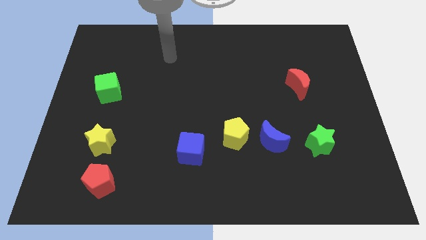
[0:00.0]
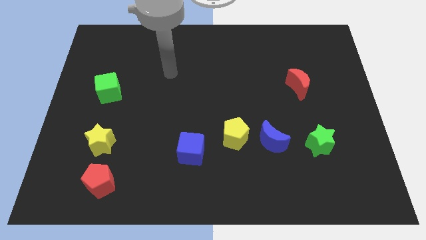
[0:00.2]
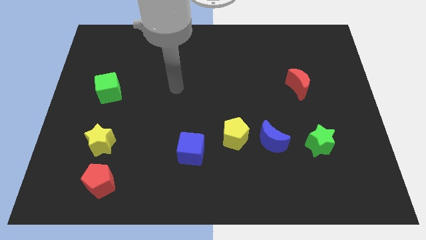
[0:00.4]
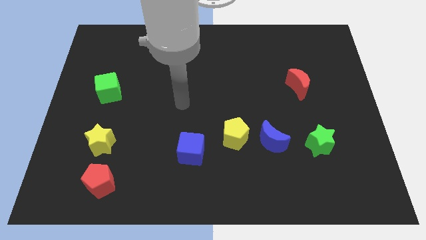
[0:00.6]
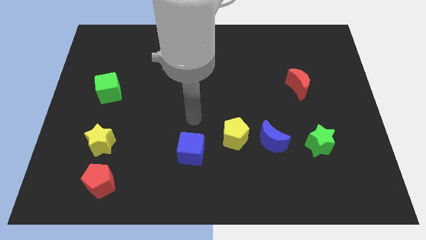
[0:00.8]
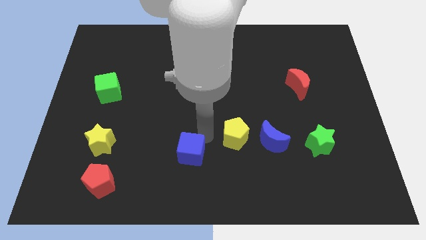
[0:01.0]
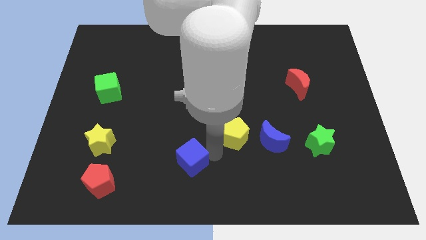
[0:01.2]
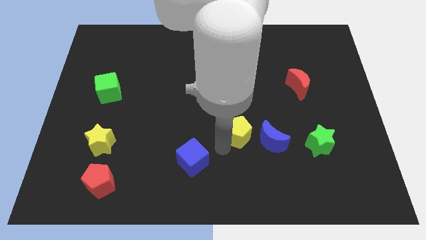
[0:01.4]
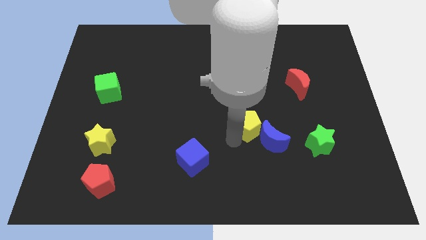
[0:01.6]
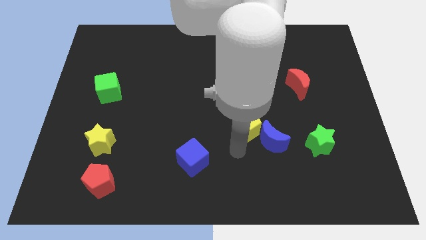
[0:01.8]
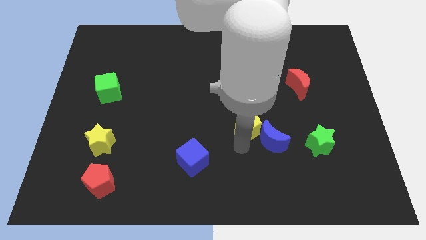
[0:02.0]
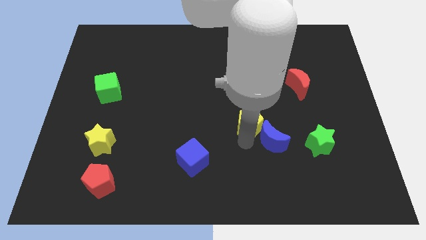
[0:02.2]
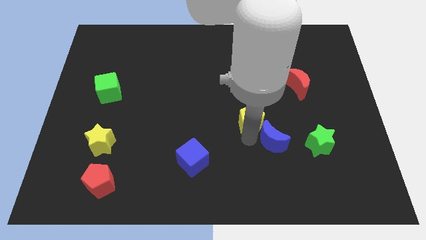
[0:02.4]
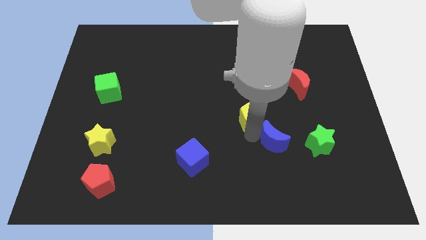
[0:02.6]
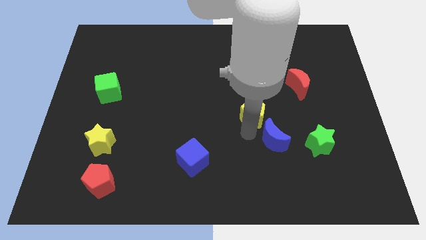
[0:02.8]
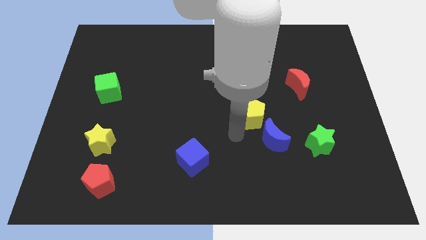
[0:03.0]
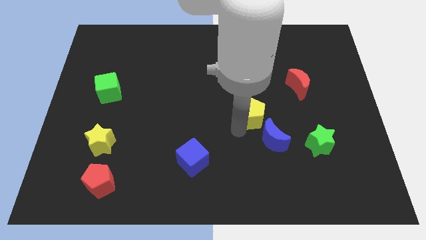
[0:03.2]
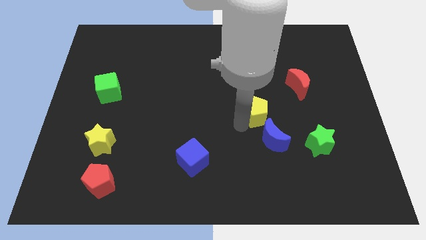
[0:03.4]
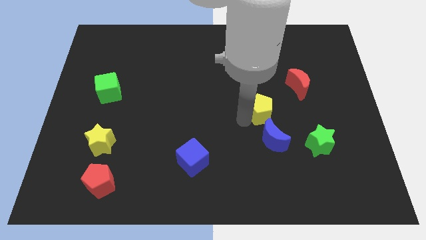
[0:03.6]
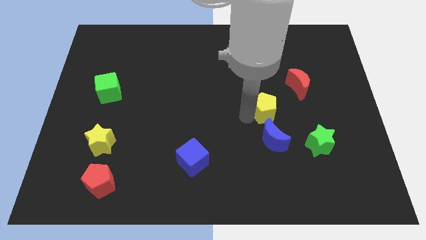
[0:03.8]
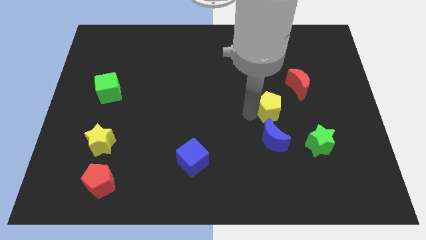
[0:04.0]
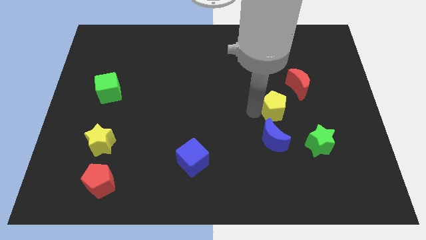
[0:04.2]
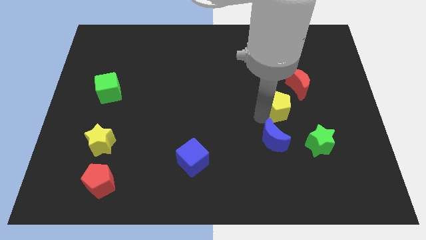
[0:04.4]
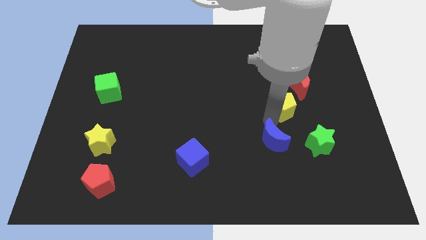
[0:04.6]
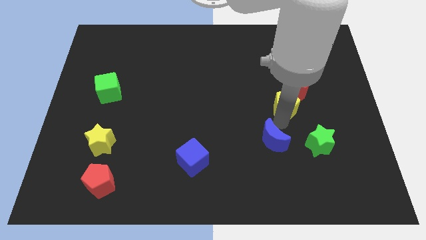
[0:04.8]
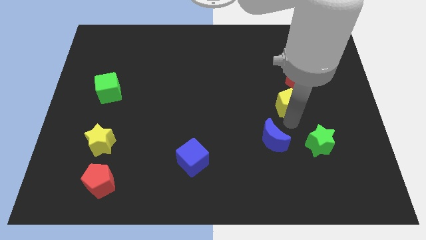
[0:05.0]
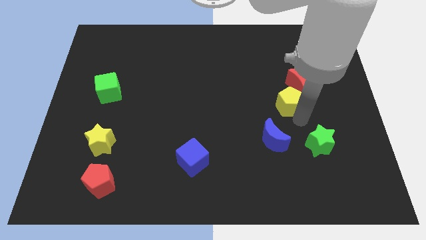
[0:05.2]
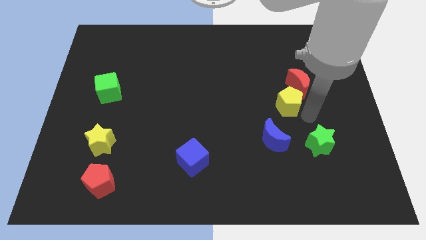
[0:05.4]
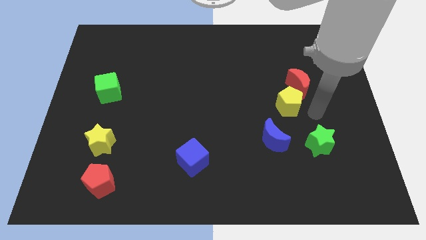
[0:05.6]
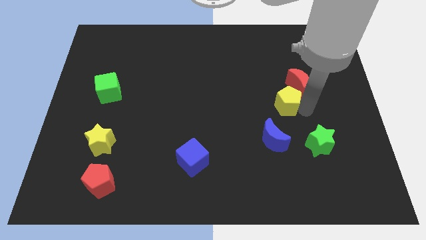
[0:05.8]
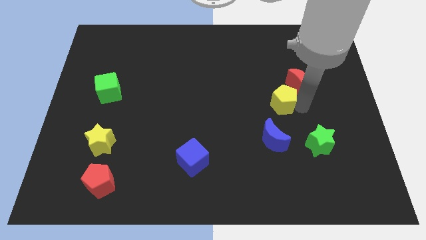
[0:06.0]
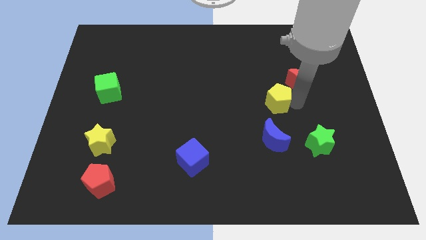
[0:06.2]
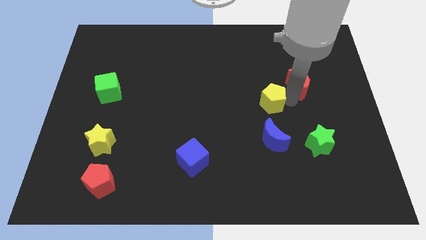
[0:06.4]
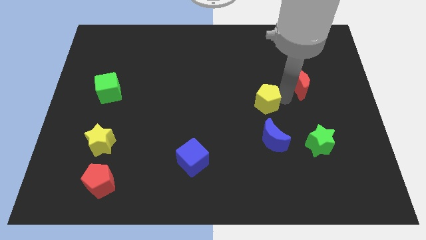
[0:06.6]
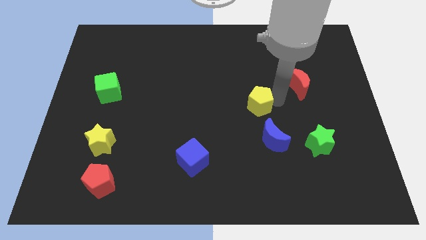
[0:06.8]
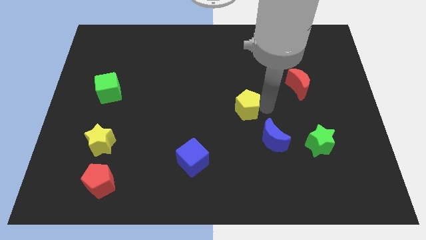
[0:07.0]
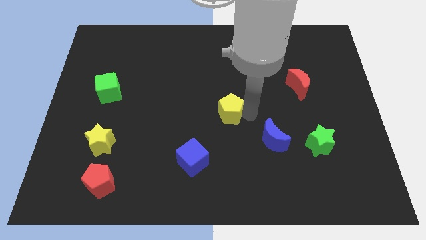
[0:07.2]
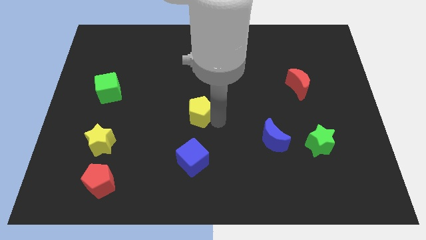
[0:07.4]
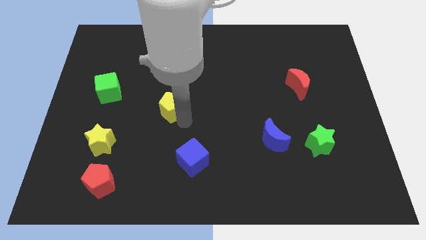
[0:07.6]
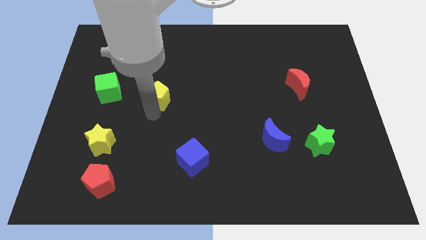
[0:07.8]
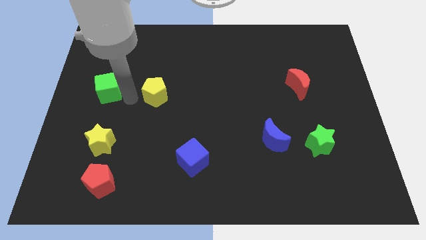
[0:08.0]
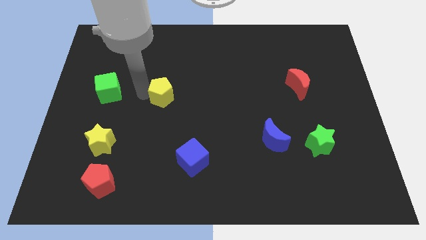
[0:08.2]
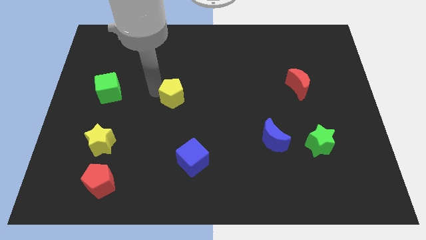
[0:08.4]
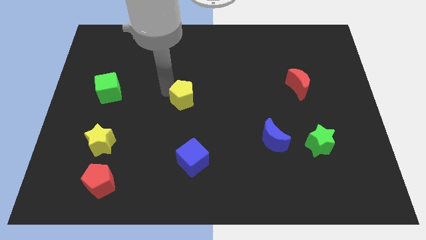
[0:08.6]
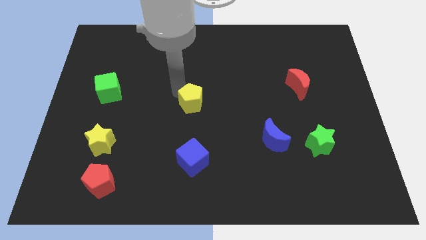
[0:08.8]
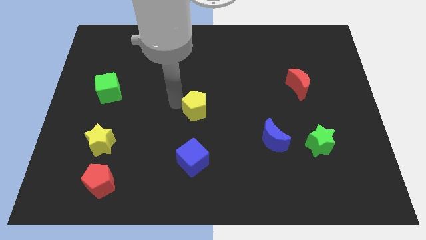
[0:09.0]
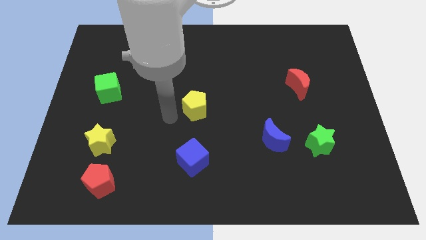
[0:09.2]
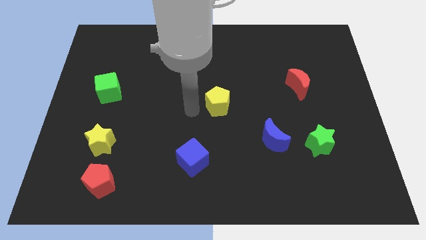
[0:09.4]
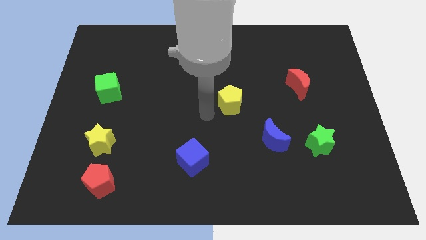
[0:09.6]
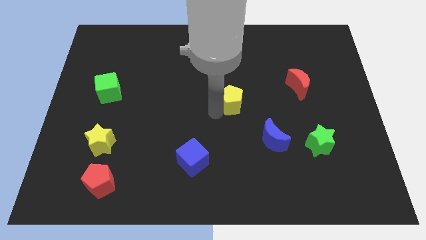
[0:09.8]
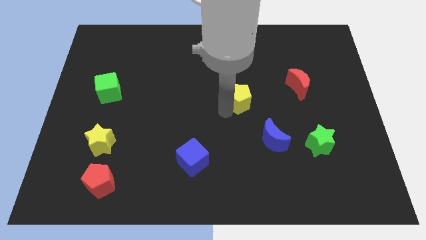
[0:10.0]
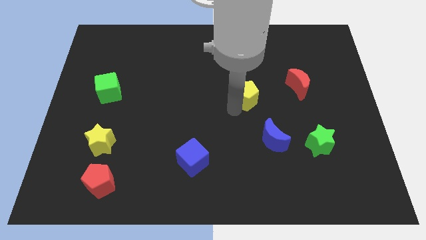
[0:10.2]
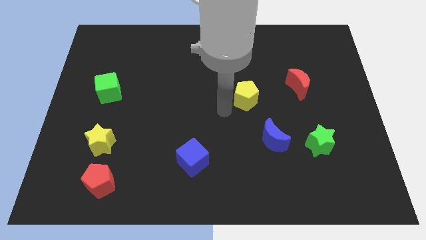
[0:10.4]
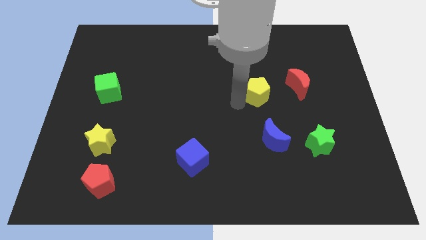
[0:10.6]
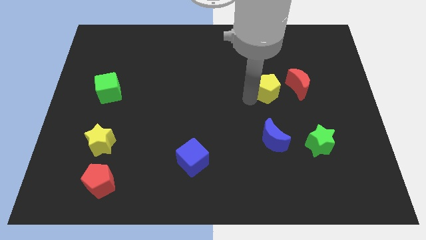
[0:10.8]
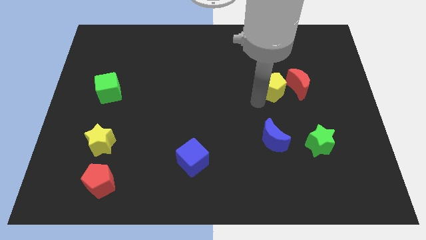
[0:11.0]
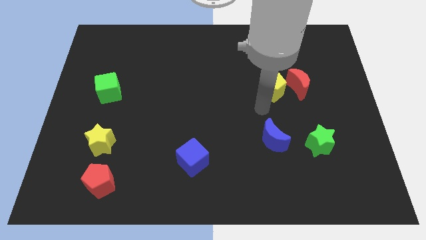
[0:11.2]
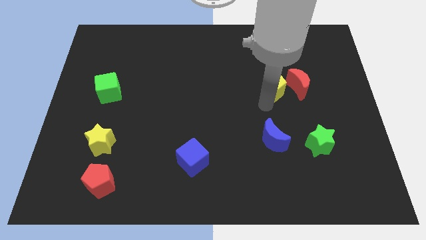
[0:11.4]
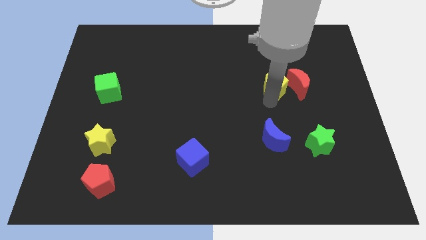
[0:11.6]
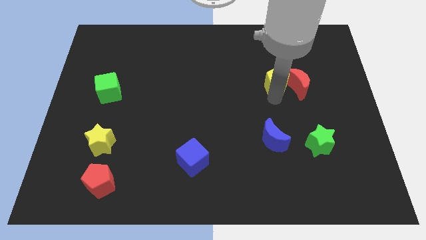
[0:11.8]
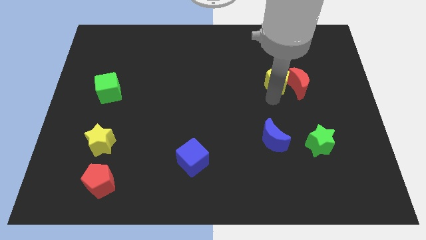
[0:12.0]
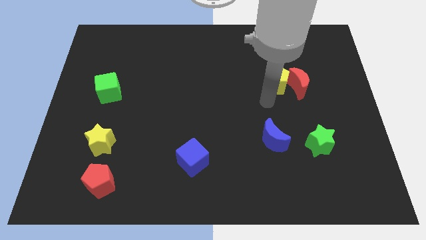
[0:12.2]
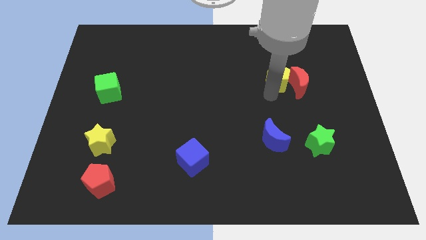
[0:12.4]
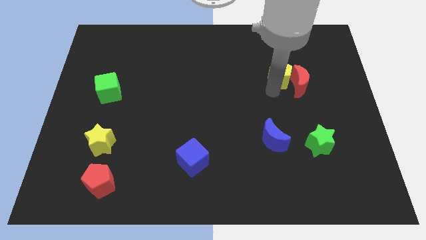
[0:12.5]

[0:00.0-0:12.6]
slide the yellow pentagon upwards and to the right

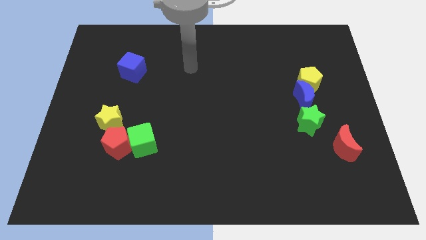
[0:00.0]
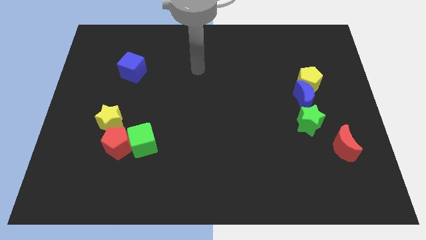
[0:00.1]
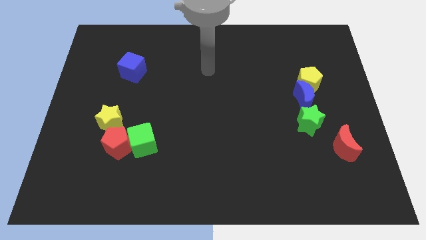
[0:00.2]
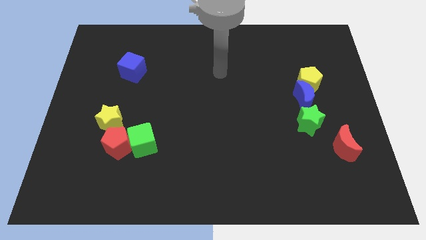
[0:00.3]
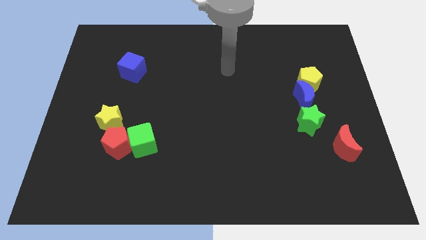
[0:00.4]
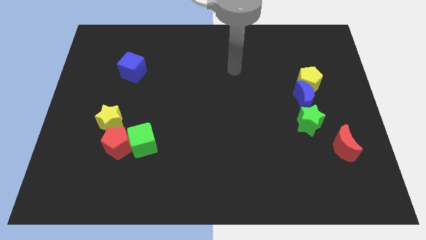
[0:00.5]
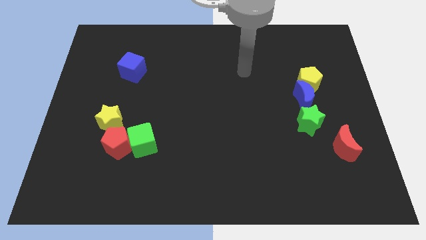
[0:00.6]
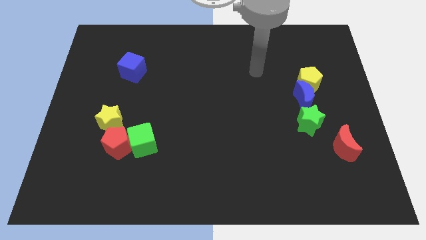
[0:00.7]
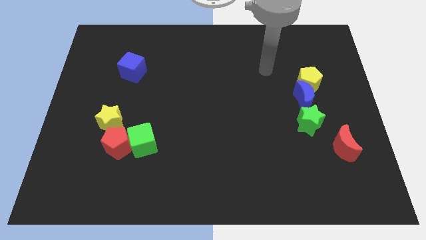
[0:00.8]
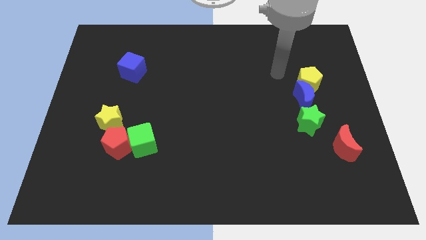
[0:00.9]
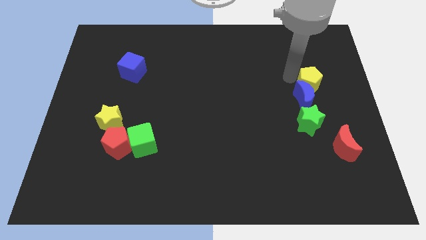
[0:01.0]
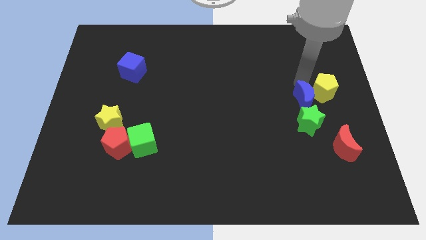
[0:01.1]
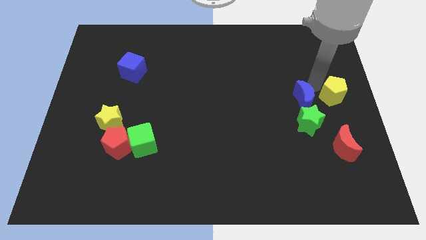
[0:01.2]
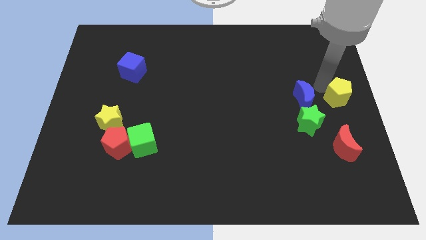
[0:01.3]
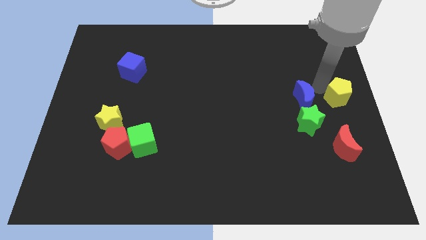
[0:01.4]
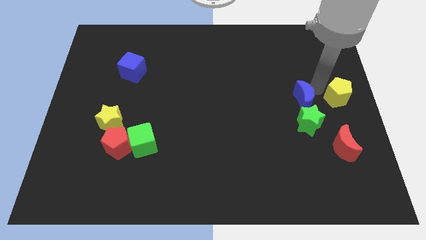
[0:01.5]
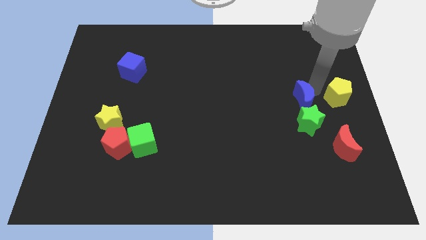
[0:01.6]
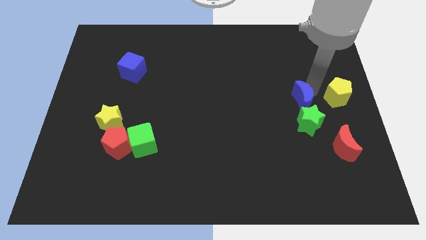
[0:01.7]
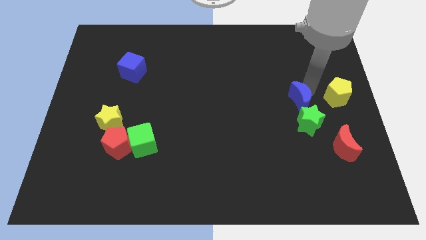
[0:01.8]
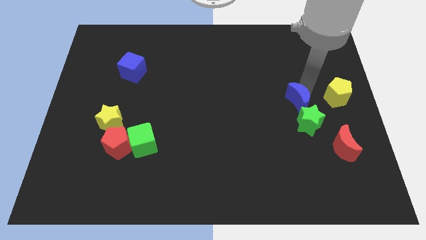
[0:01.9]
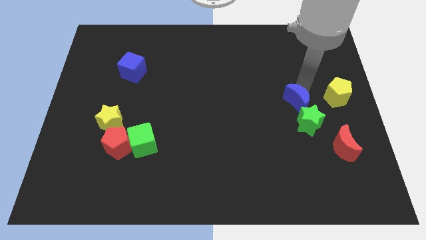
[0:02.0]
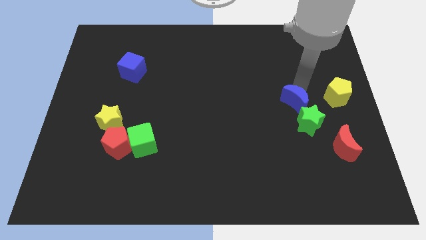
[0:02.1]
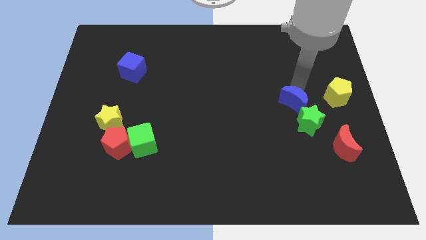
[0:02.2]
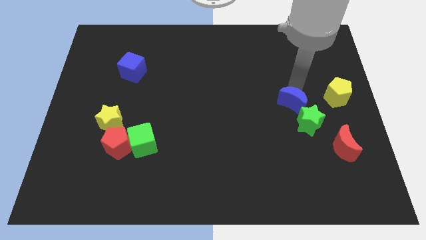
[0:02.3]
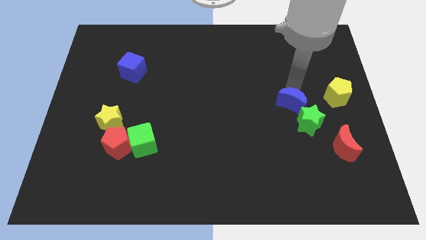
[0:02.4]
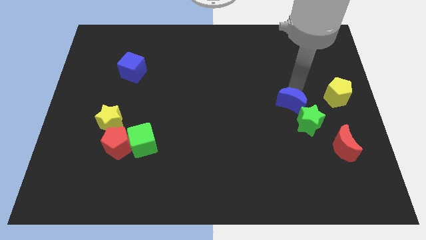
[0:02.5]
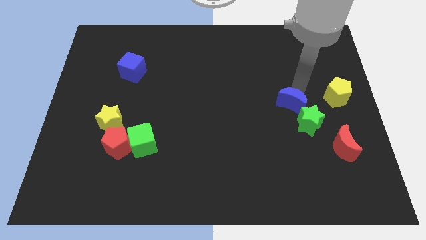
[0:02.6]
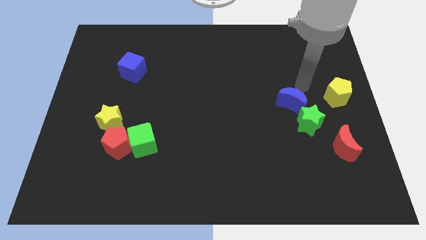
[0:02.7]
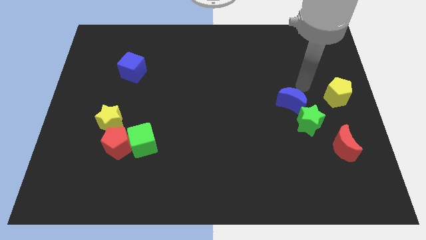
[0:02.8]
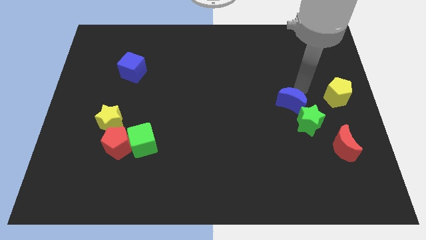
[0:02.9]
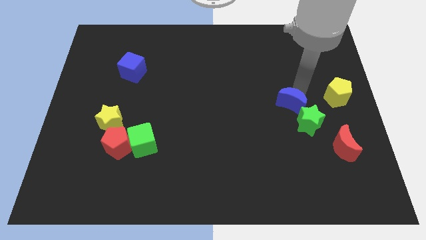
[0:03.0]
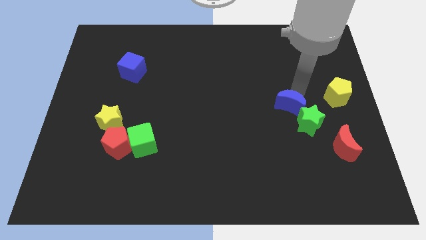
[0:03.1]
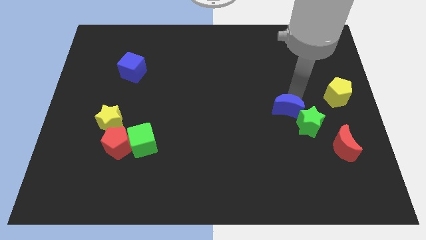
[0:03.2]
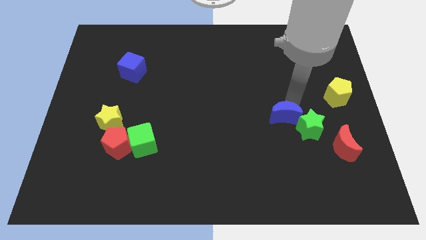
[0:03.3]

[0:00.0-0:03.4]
slightly move the blue moon down and left diagonally
